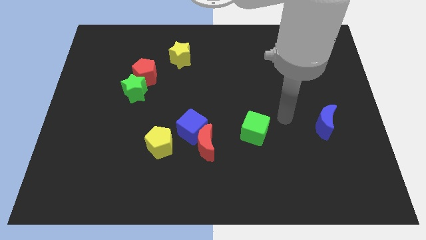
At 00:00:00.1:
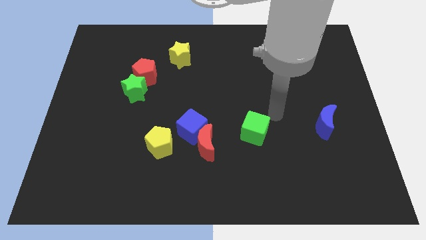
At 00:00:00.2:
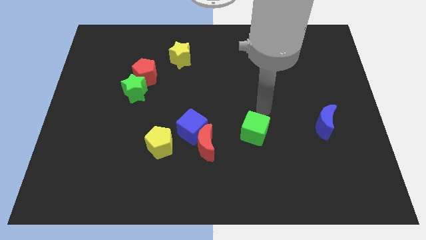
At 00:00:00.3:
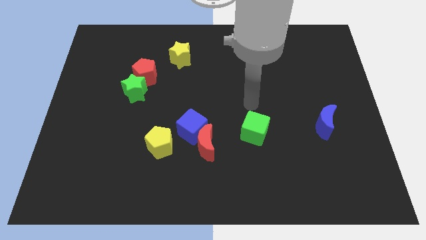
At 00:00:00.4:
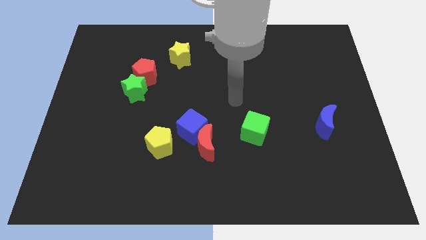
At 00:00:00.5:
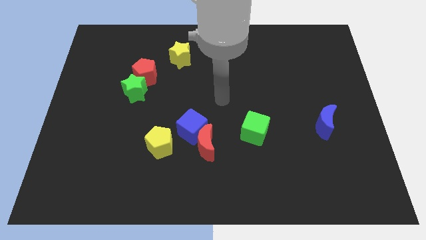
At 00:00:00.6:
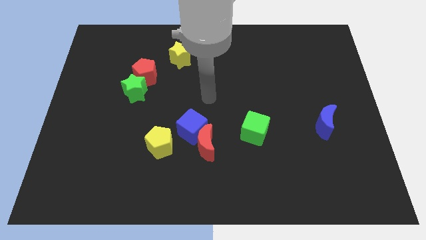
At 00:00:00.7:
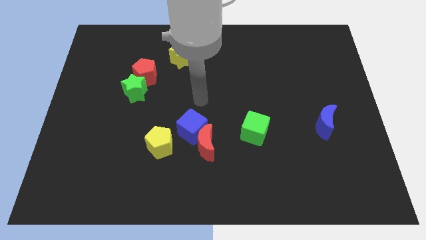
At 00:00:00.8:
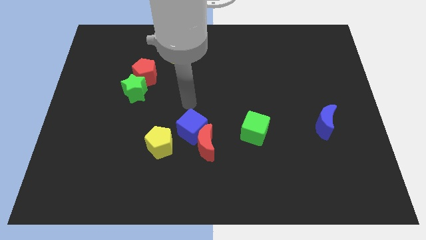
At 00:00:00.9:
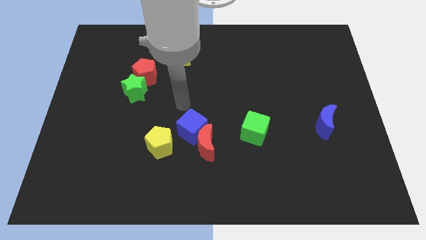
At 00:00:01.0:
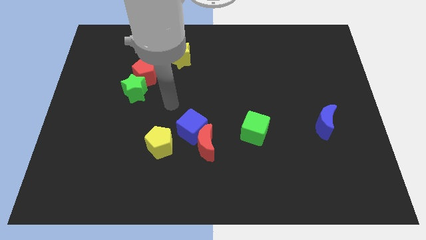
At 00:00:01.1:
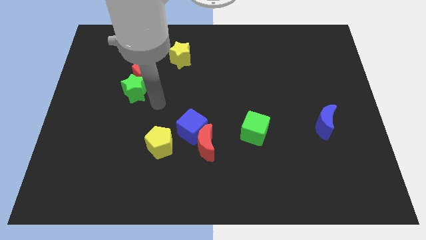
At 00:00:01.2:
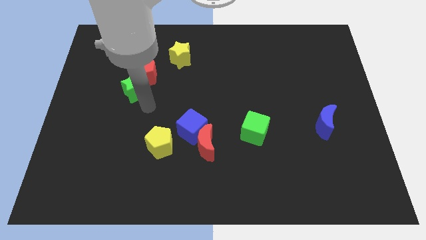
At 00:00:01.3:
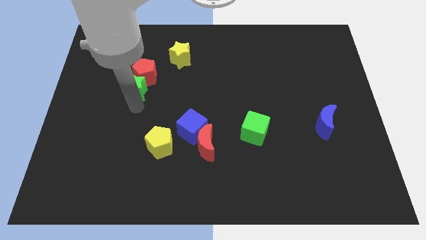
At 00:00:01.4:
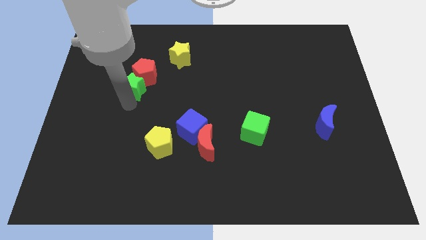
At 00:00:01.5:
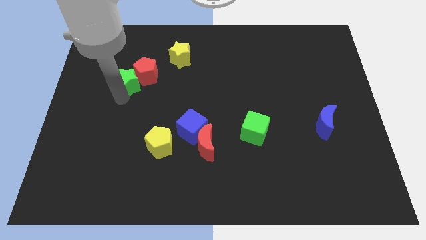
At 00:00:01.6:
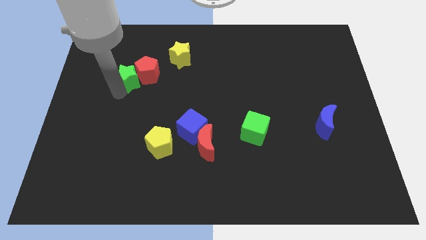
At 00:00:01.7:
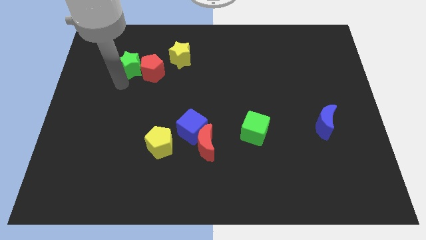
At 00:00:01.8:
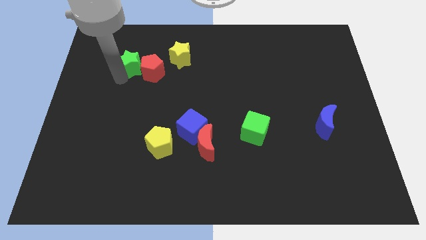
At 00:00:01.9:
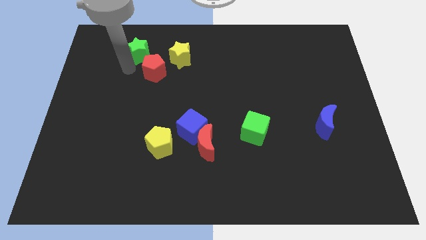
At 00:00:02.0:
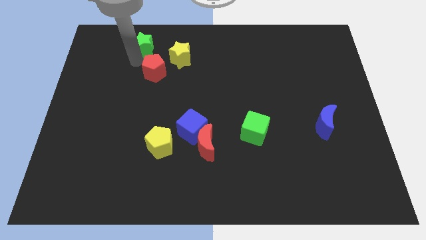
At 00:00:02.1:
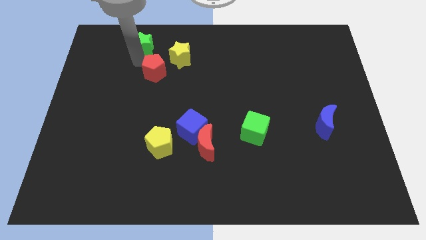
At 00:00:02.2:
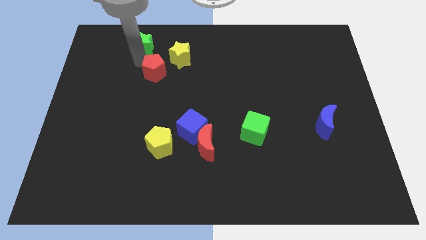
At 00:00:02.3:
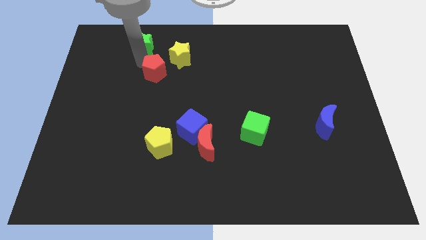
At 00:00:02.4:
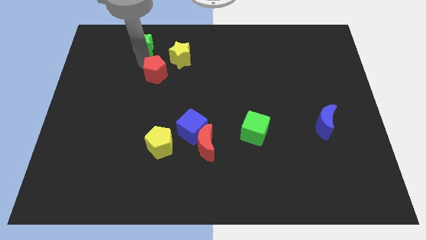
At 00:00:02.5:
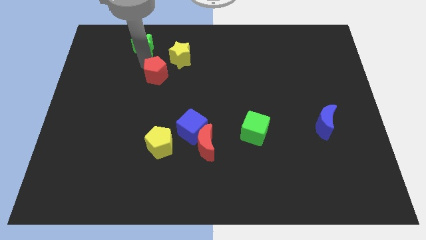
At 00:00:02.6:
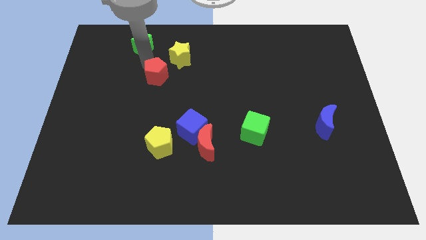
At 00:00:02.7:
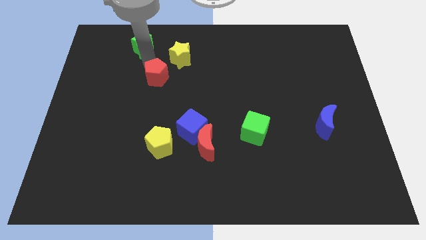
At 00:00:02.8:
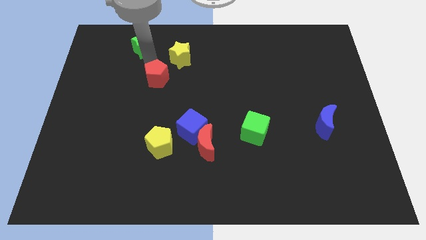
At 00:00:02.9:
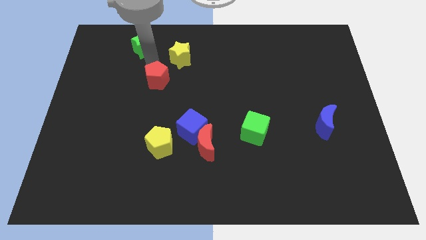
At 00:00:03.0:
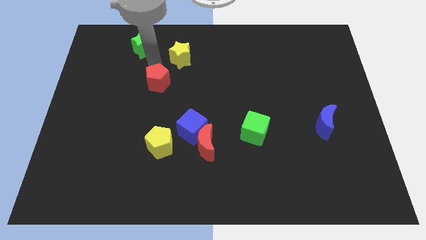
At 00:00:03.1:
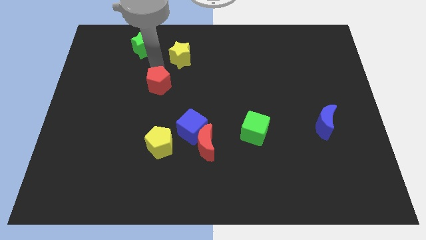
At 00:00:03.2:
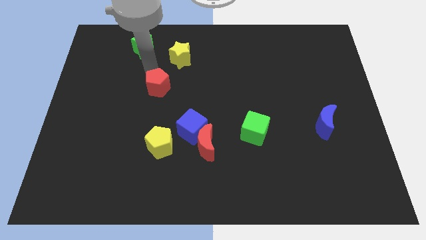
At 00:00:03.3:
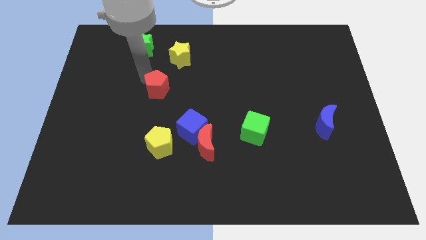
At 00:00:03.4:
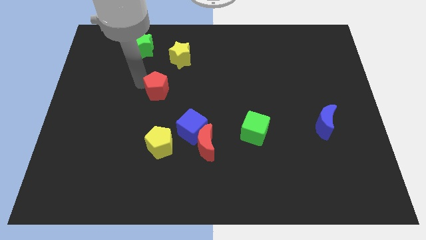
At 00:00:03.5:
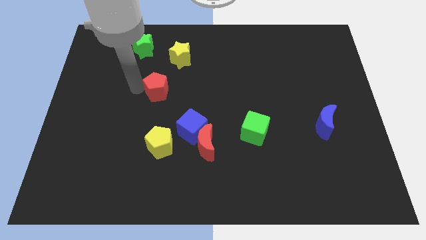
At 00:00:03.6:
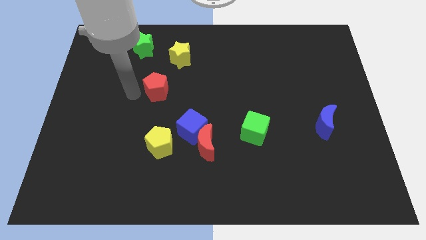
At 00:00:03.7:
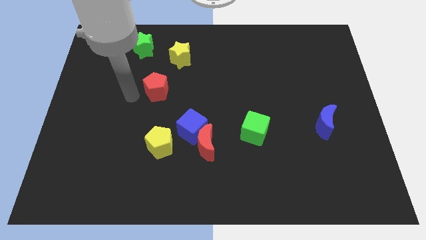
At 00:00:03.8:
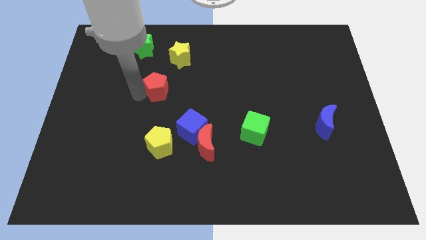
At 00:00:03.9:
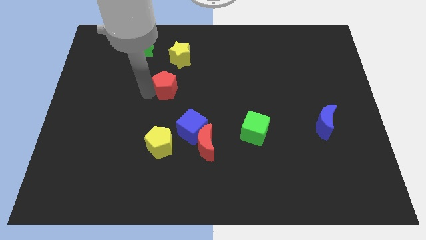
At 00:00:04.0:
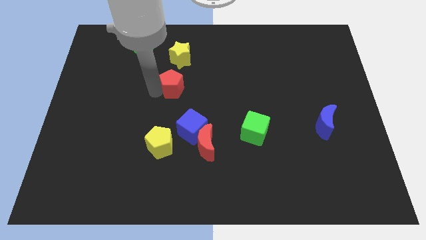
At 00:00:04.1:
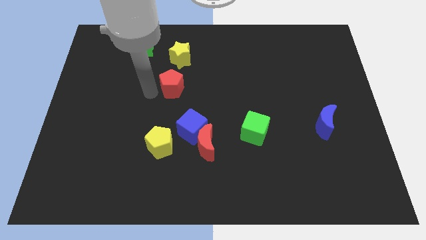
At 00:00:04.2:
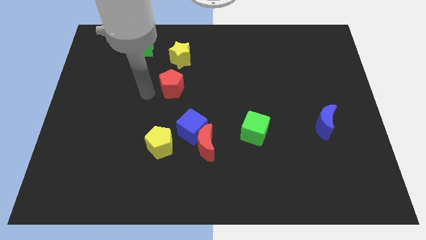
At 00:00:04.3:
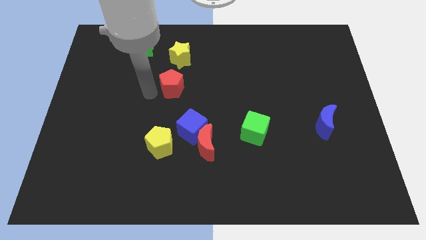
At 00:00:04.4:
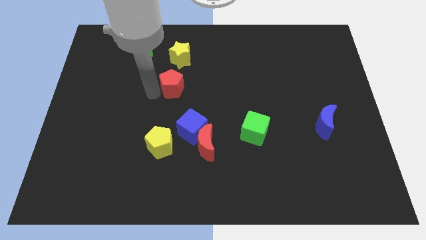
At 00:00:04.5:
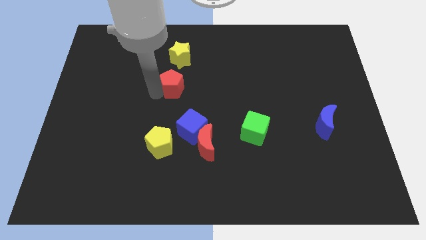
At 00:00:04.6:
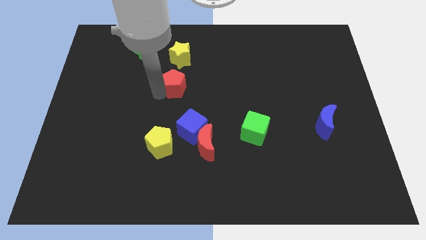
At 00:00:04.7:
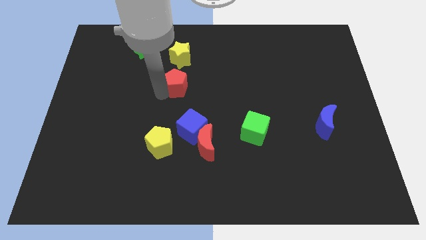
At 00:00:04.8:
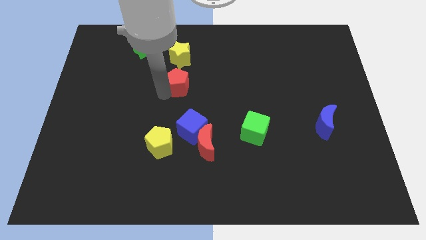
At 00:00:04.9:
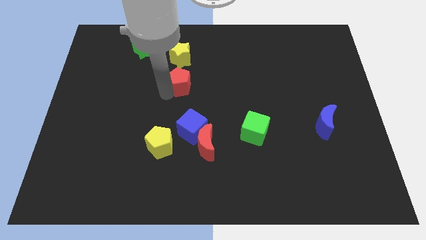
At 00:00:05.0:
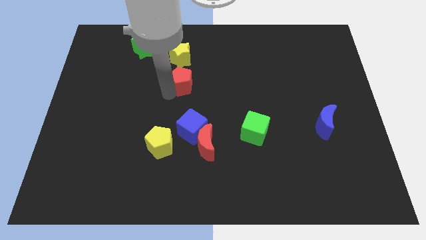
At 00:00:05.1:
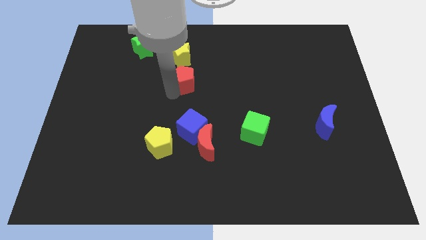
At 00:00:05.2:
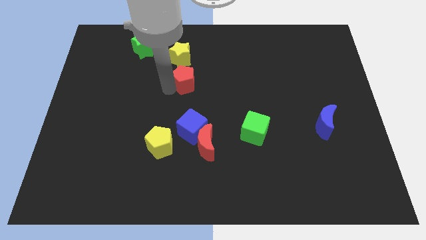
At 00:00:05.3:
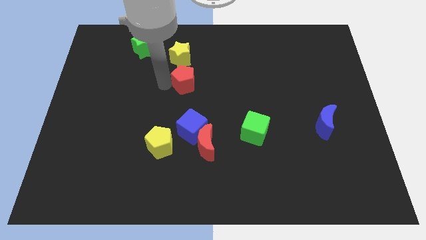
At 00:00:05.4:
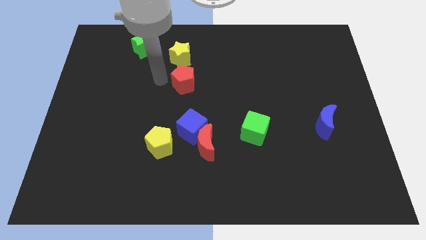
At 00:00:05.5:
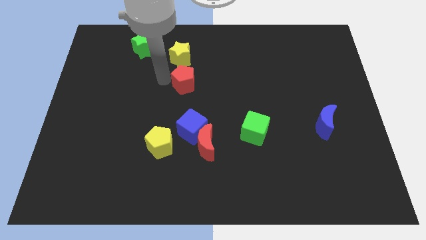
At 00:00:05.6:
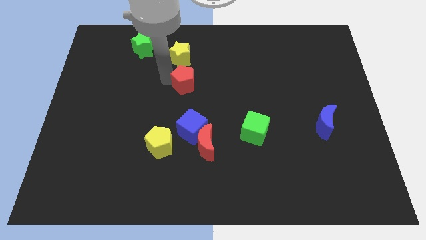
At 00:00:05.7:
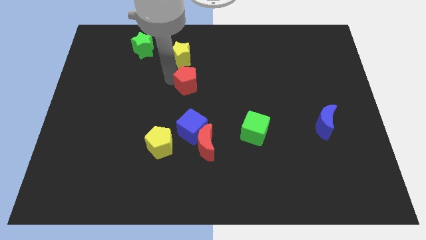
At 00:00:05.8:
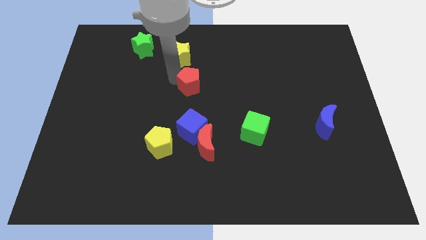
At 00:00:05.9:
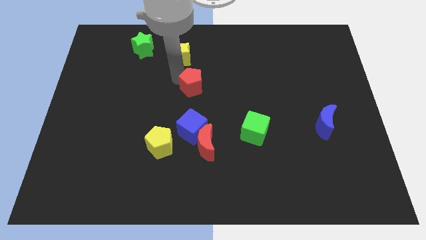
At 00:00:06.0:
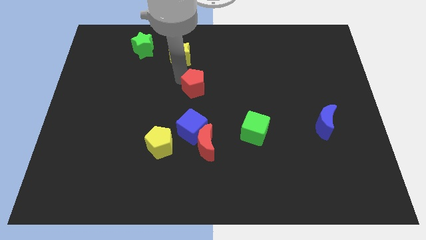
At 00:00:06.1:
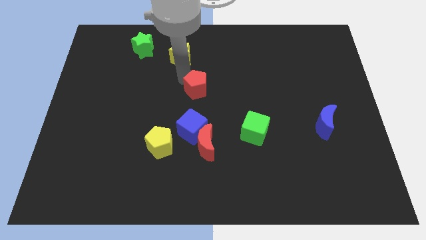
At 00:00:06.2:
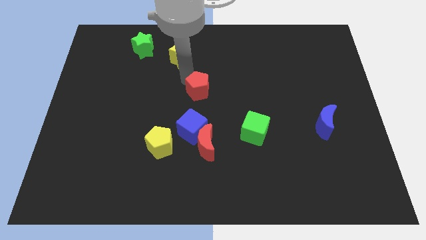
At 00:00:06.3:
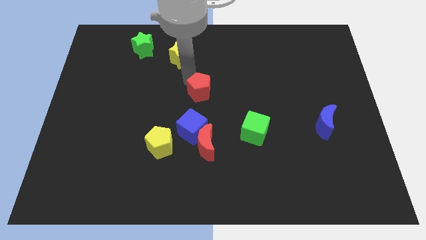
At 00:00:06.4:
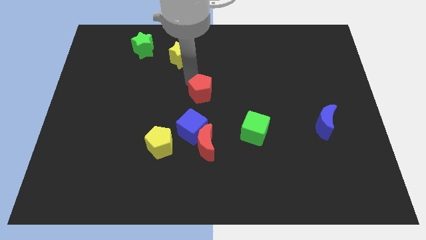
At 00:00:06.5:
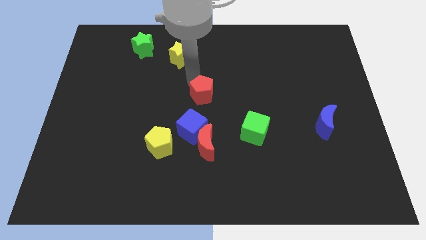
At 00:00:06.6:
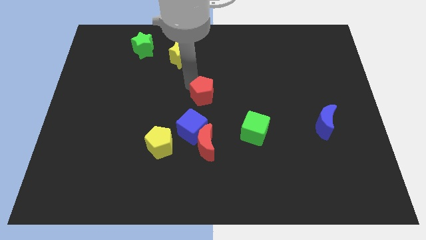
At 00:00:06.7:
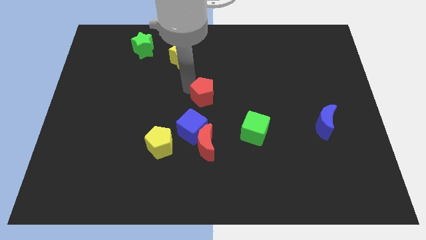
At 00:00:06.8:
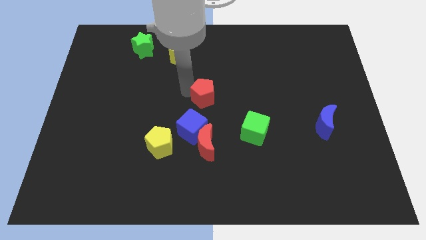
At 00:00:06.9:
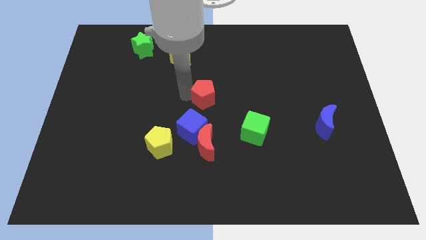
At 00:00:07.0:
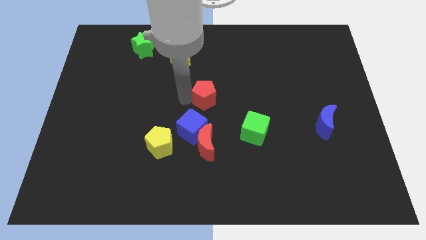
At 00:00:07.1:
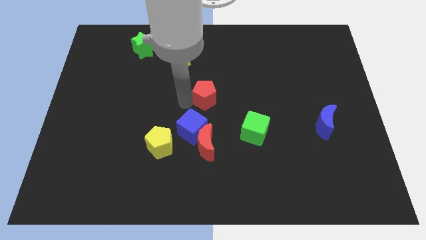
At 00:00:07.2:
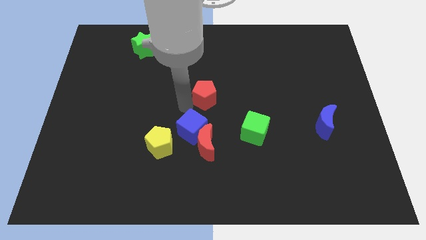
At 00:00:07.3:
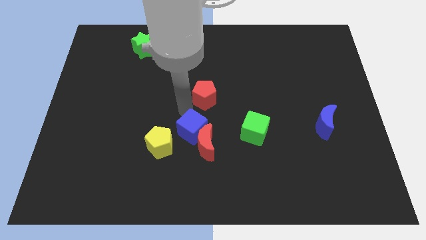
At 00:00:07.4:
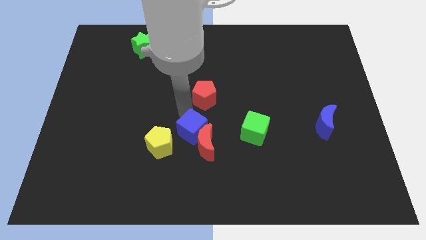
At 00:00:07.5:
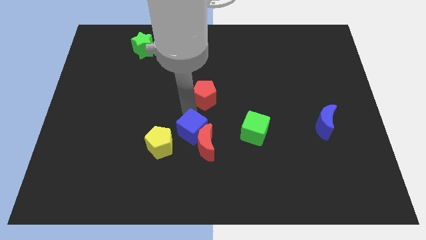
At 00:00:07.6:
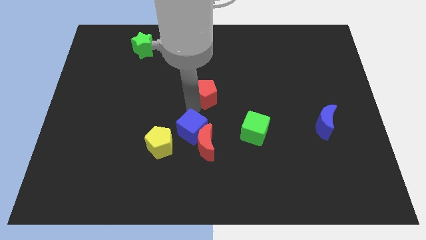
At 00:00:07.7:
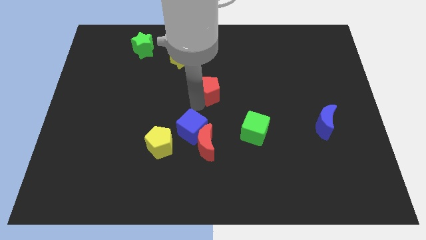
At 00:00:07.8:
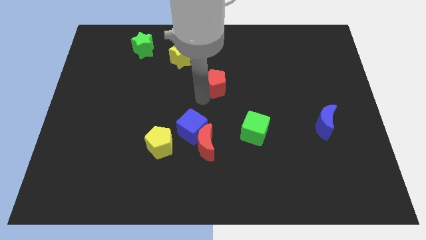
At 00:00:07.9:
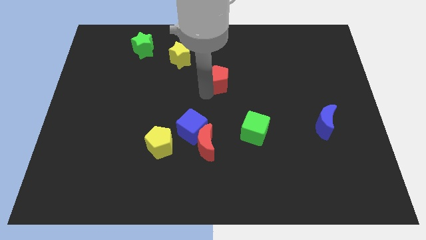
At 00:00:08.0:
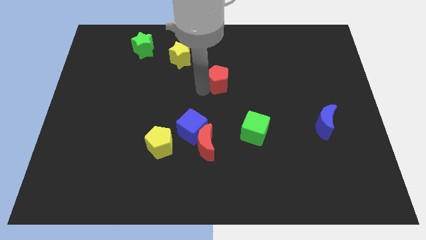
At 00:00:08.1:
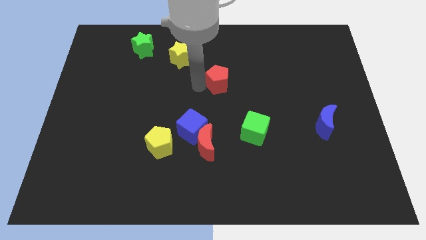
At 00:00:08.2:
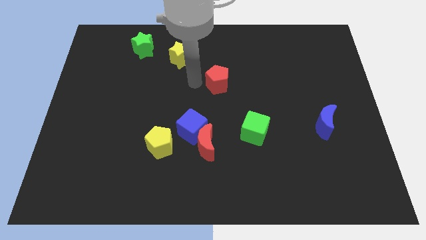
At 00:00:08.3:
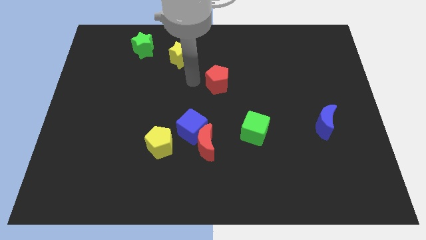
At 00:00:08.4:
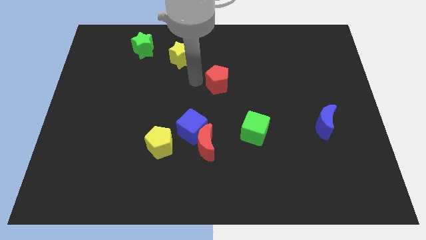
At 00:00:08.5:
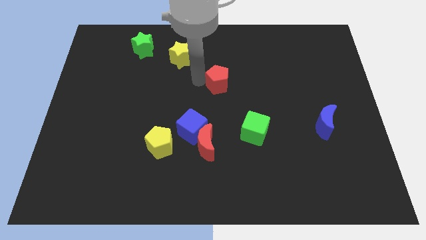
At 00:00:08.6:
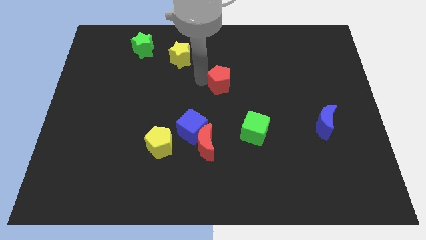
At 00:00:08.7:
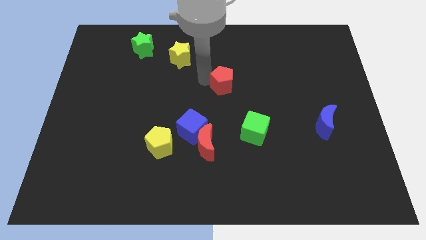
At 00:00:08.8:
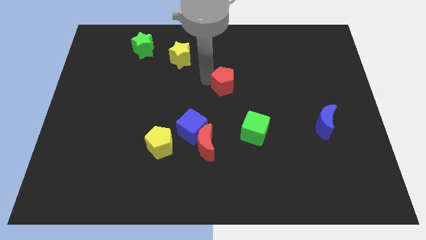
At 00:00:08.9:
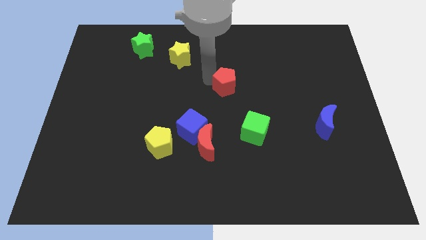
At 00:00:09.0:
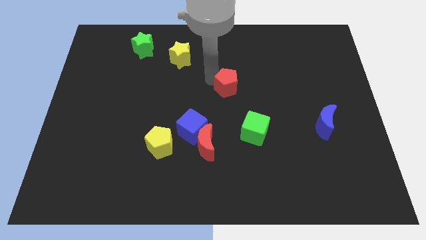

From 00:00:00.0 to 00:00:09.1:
move the red pentagon right
